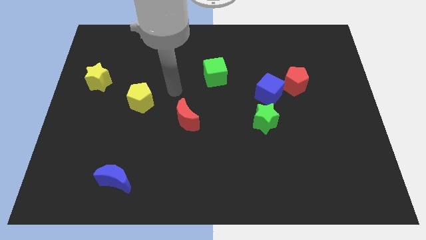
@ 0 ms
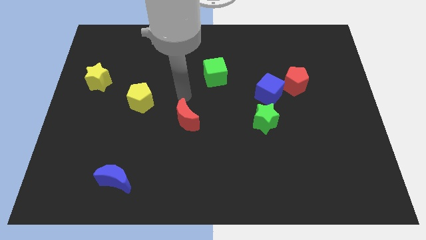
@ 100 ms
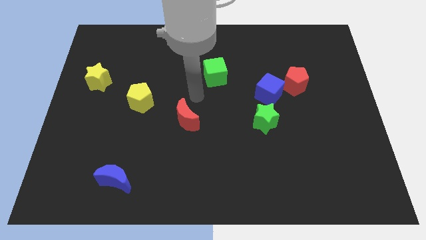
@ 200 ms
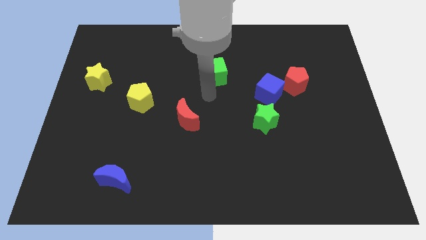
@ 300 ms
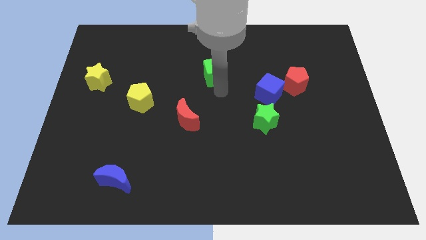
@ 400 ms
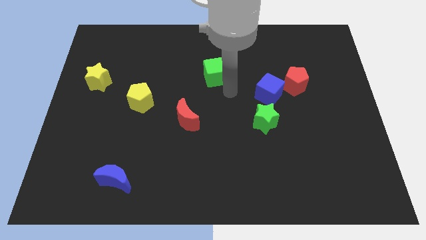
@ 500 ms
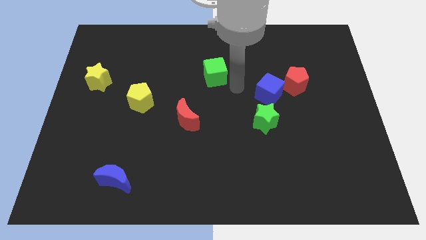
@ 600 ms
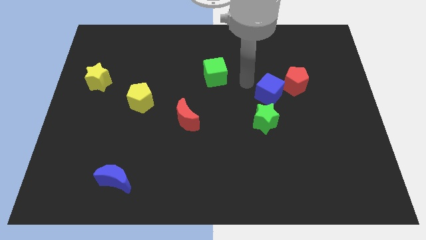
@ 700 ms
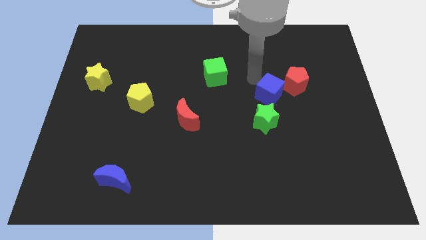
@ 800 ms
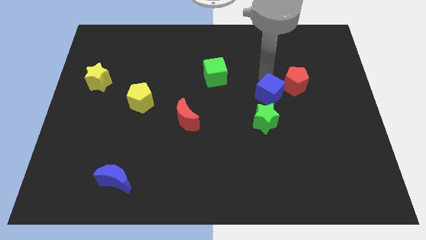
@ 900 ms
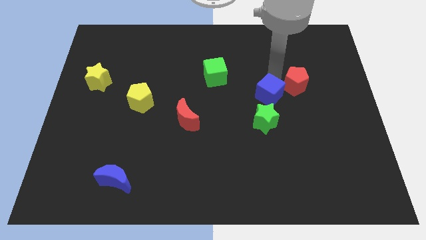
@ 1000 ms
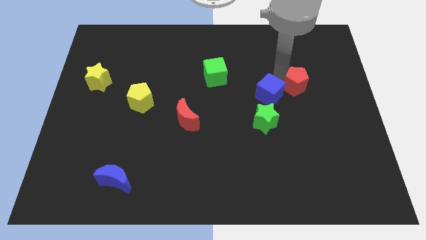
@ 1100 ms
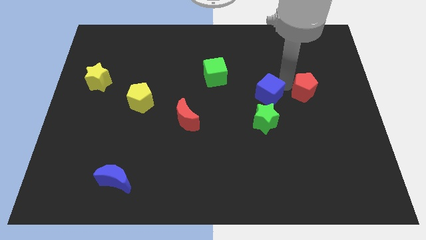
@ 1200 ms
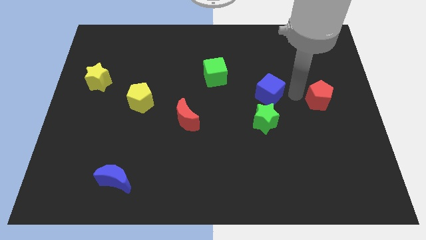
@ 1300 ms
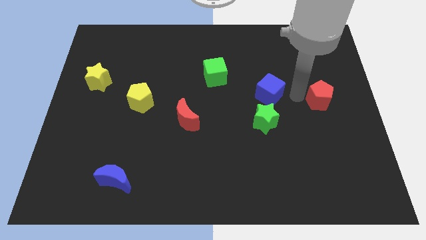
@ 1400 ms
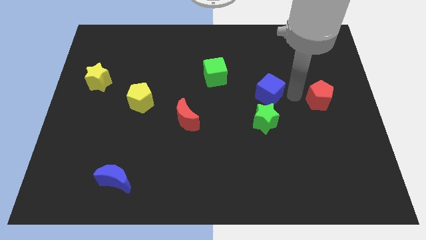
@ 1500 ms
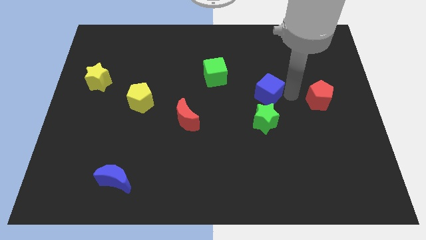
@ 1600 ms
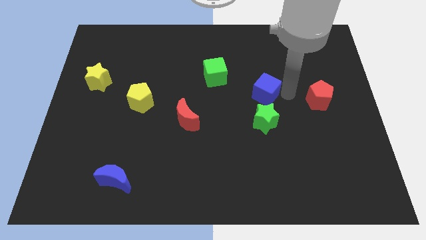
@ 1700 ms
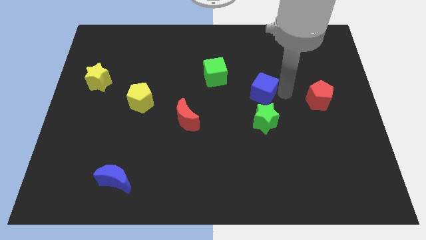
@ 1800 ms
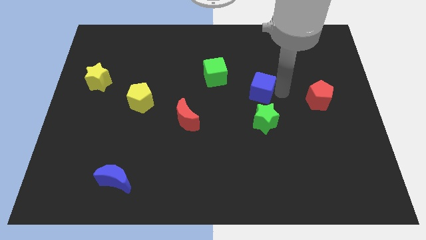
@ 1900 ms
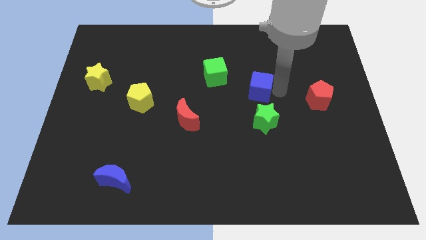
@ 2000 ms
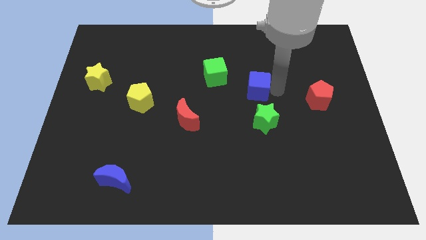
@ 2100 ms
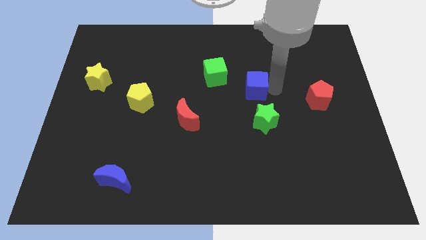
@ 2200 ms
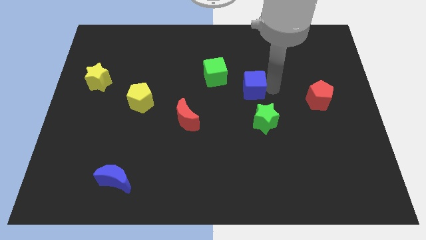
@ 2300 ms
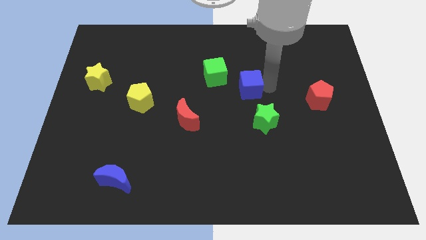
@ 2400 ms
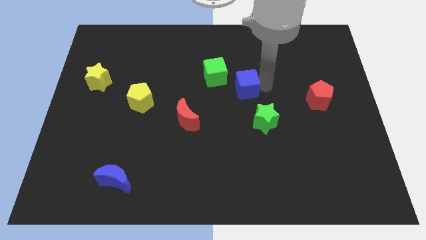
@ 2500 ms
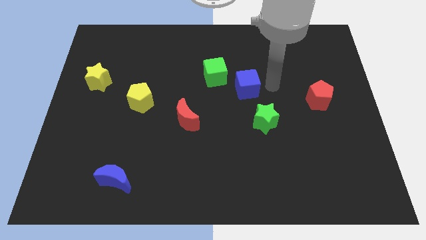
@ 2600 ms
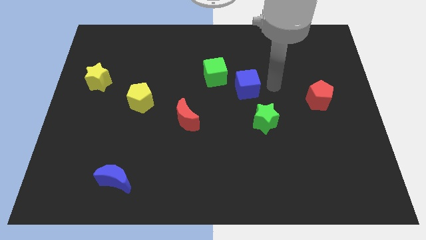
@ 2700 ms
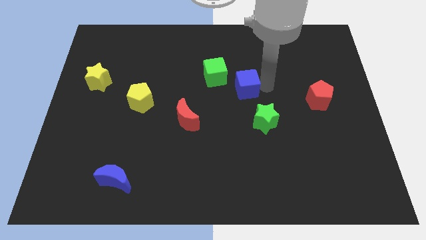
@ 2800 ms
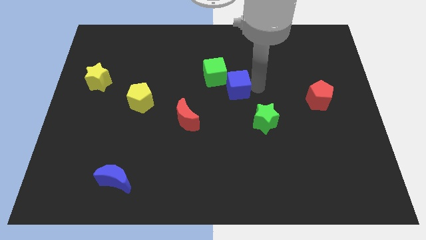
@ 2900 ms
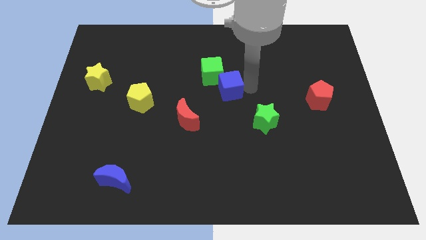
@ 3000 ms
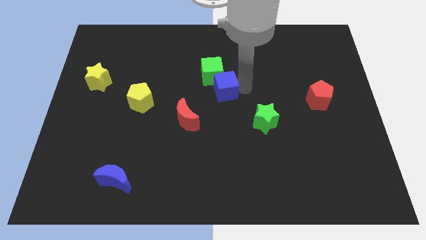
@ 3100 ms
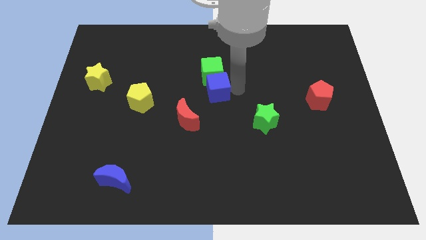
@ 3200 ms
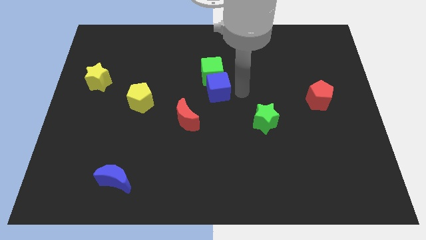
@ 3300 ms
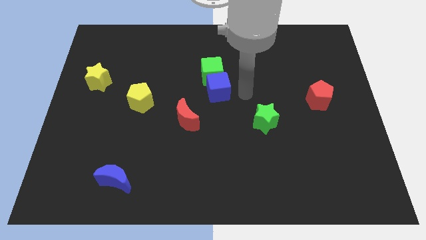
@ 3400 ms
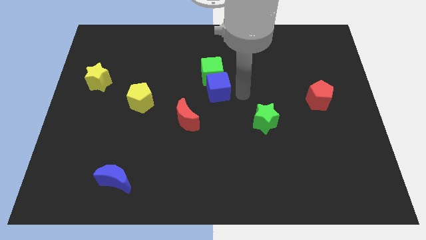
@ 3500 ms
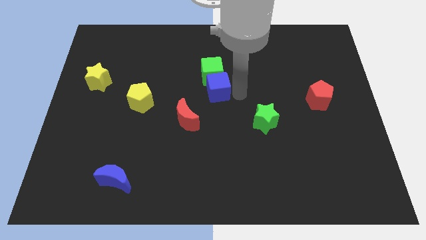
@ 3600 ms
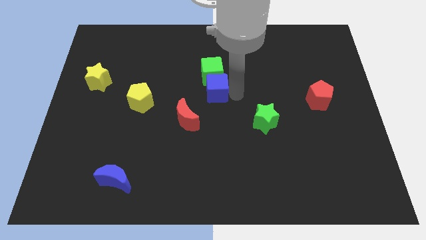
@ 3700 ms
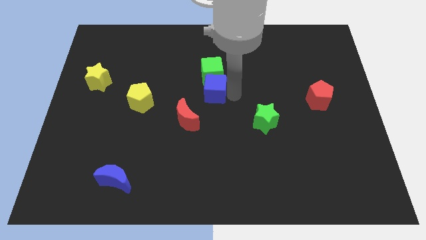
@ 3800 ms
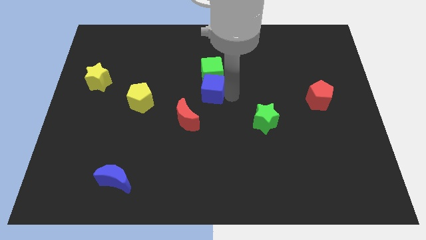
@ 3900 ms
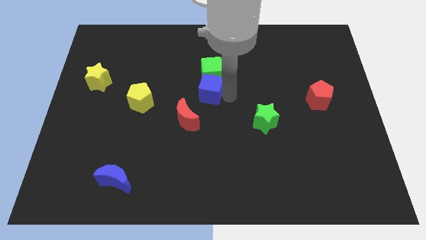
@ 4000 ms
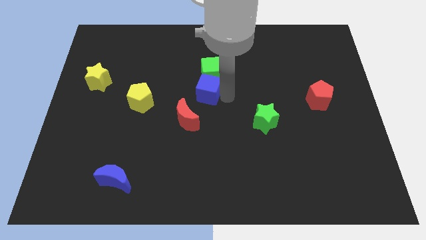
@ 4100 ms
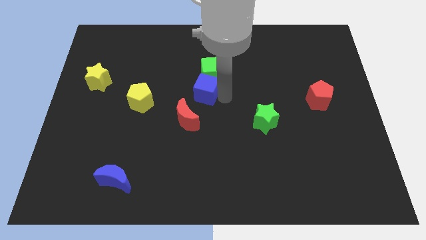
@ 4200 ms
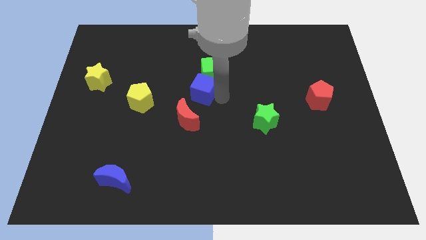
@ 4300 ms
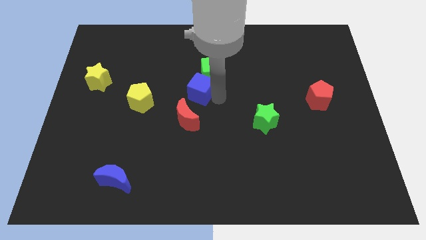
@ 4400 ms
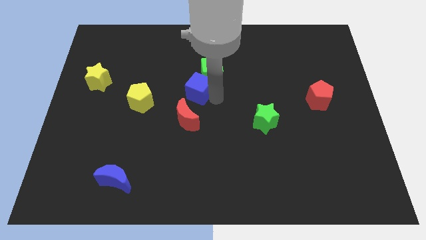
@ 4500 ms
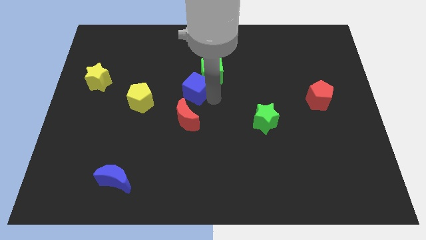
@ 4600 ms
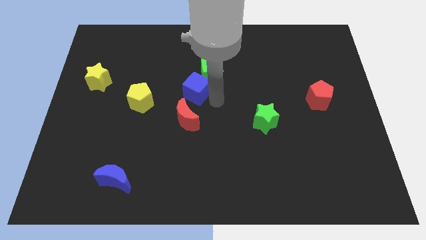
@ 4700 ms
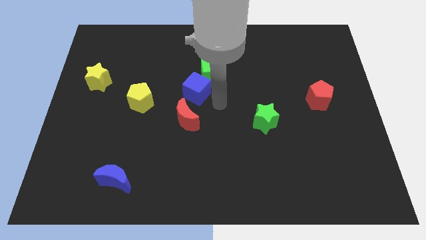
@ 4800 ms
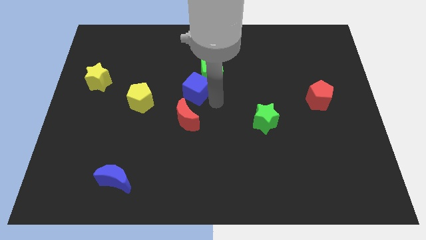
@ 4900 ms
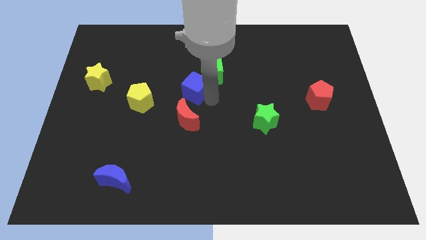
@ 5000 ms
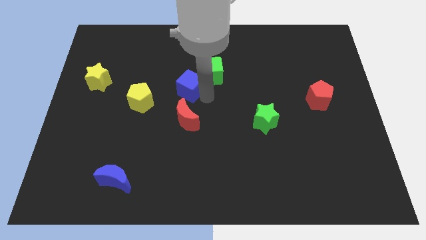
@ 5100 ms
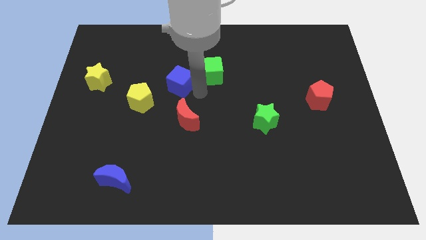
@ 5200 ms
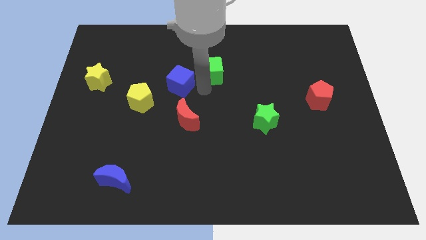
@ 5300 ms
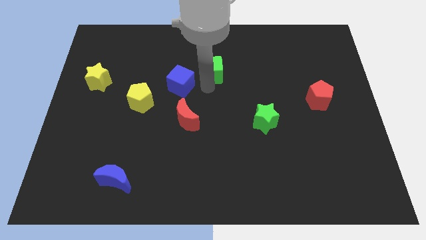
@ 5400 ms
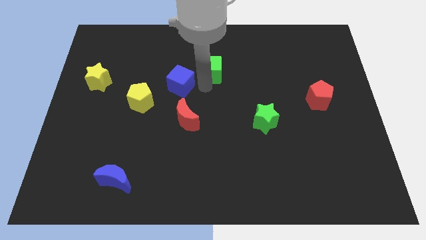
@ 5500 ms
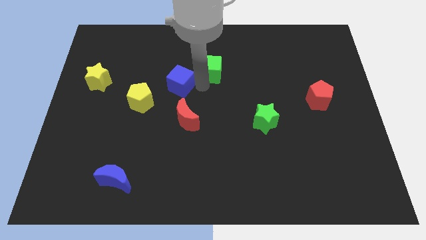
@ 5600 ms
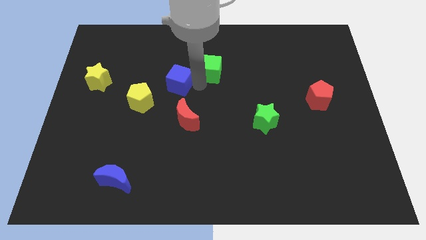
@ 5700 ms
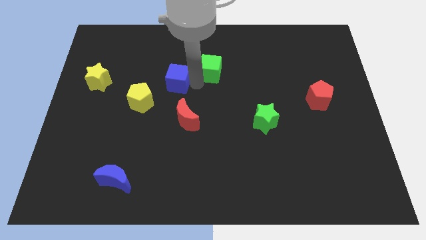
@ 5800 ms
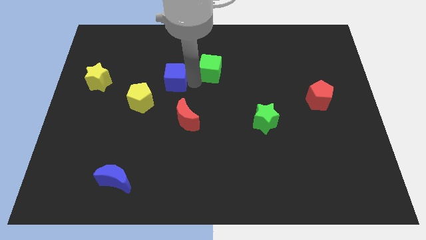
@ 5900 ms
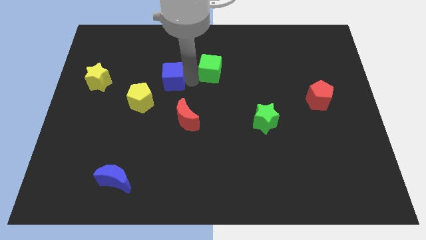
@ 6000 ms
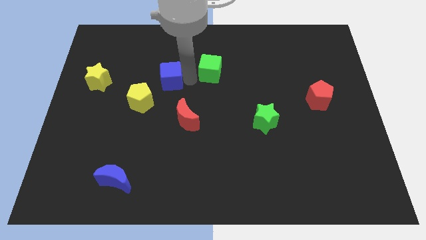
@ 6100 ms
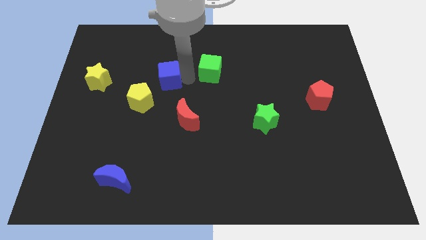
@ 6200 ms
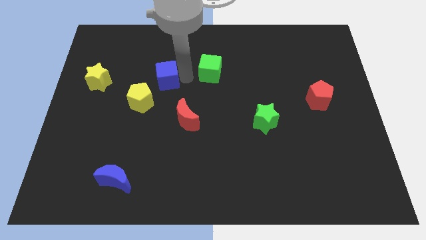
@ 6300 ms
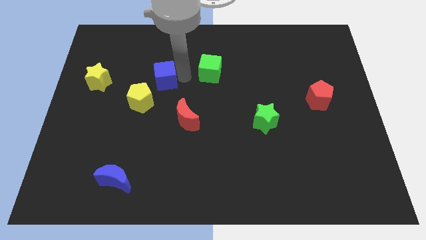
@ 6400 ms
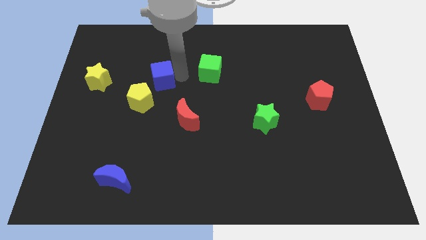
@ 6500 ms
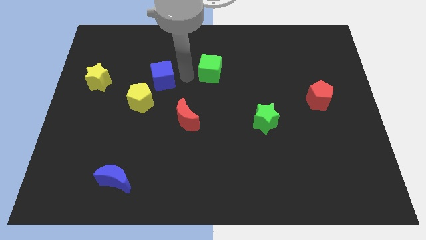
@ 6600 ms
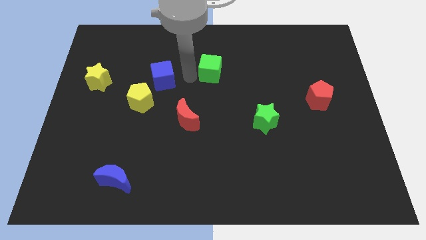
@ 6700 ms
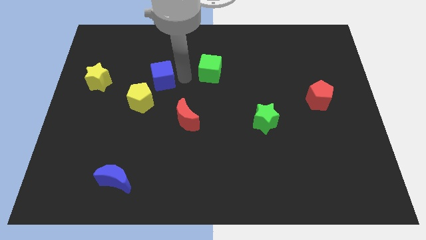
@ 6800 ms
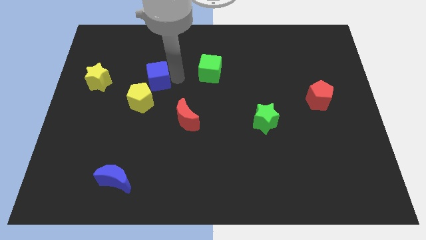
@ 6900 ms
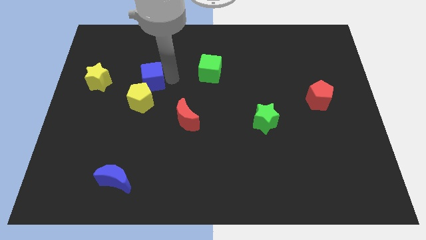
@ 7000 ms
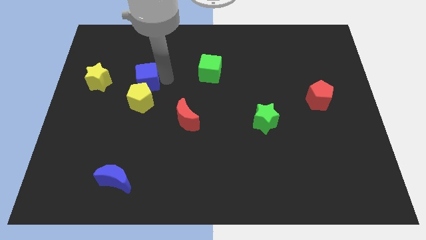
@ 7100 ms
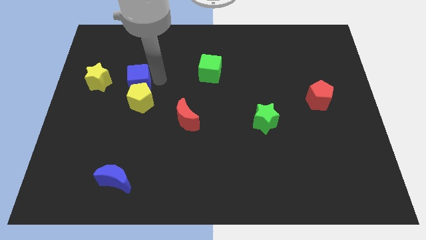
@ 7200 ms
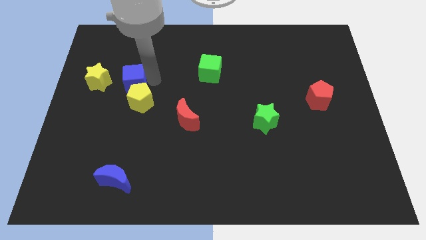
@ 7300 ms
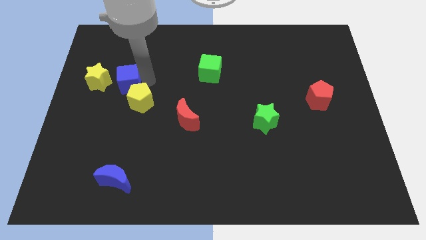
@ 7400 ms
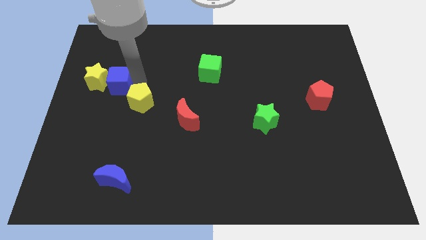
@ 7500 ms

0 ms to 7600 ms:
put the blue cube next to the yellow star
